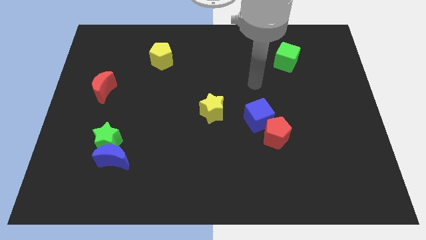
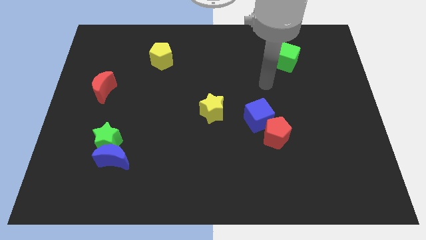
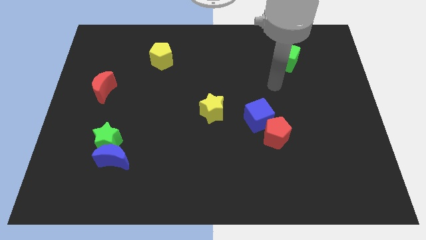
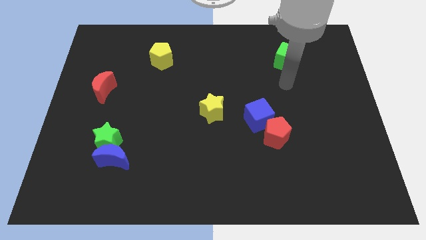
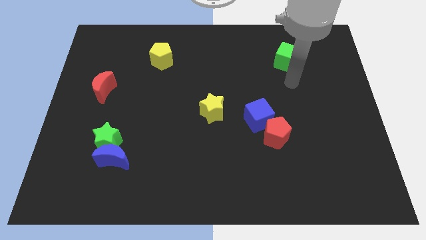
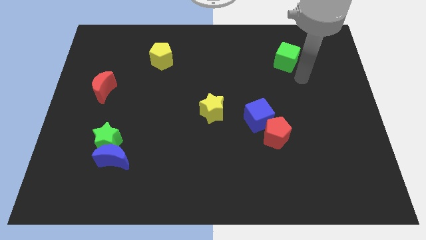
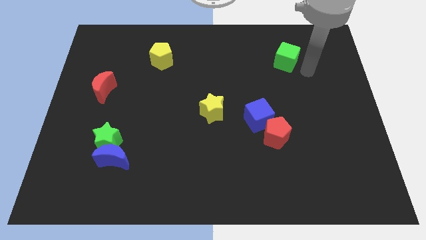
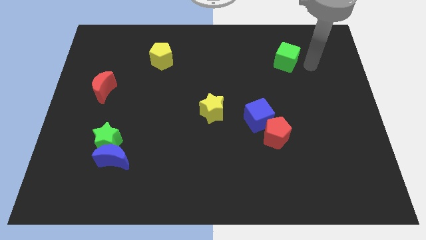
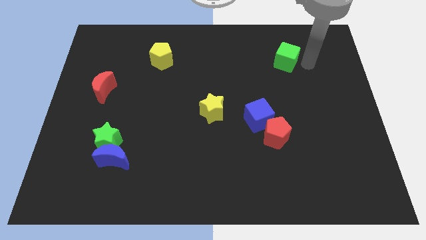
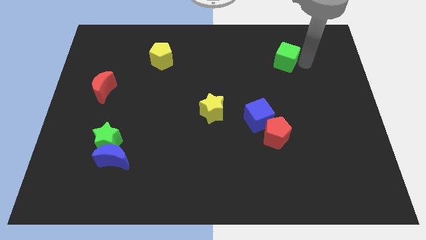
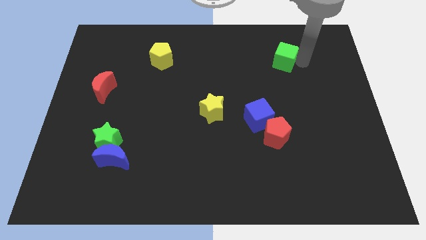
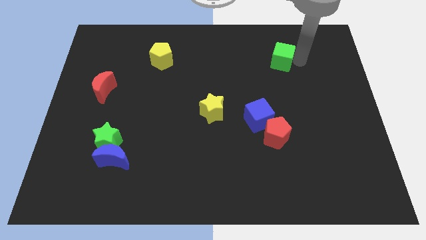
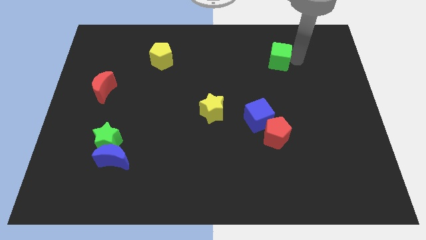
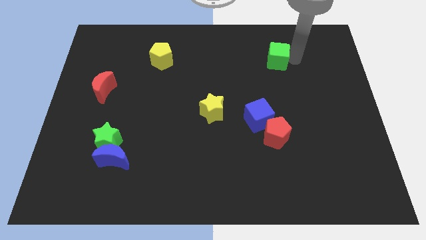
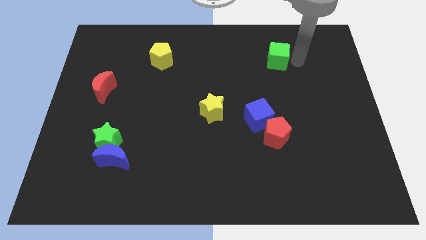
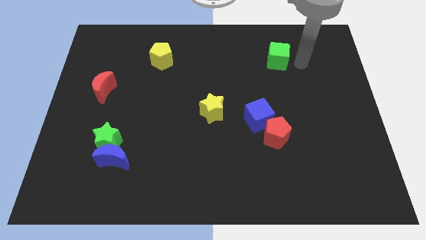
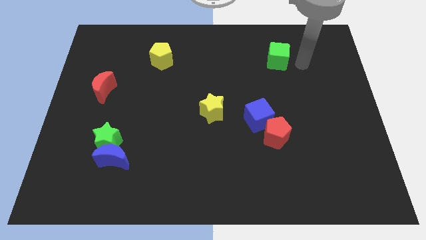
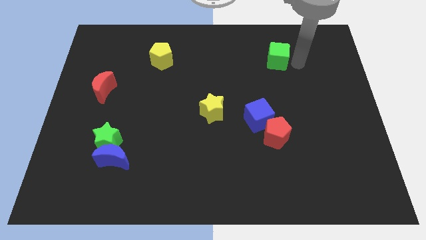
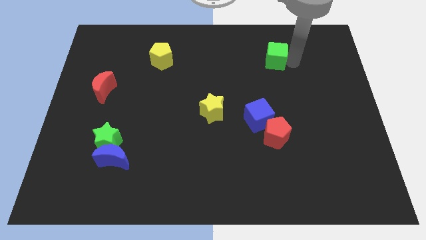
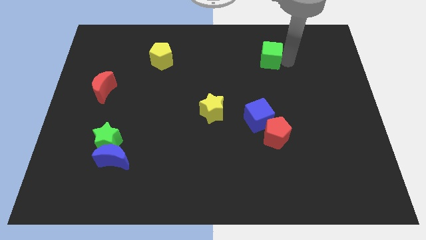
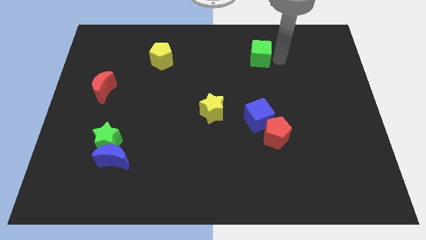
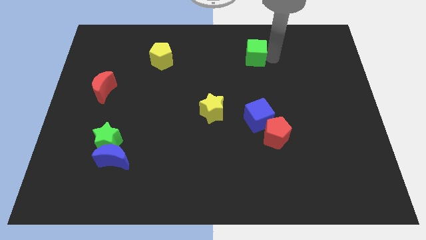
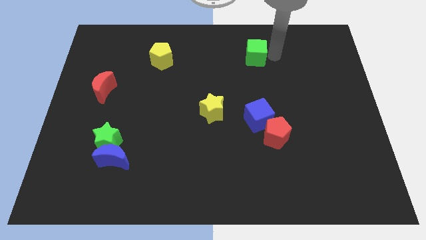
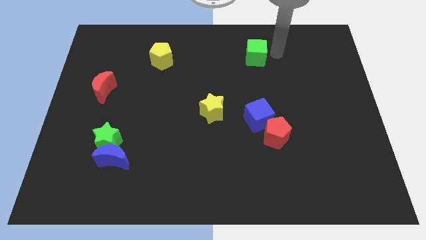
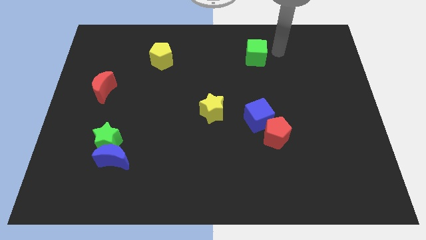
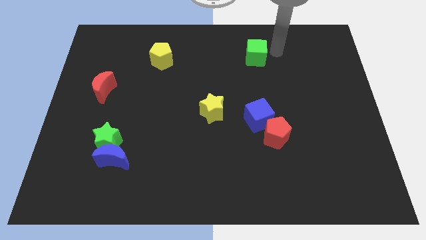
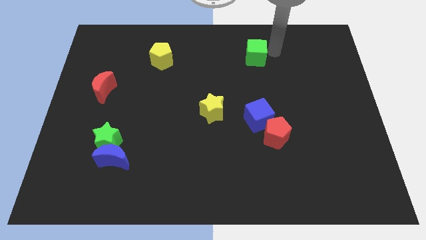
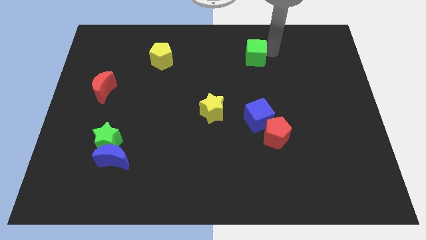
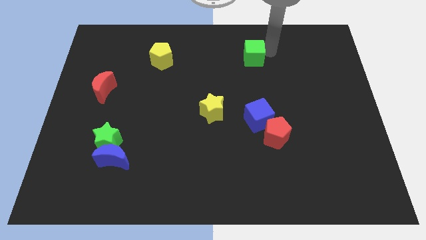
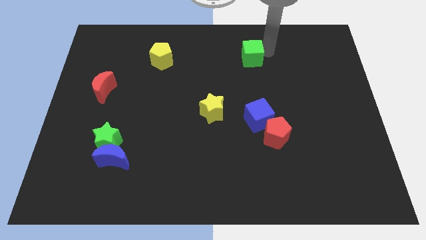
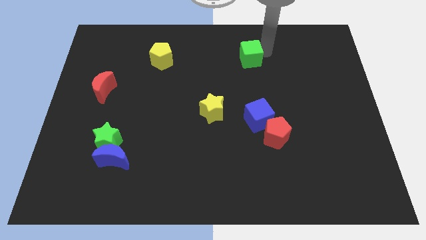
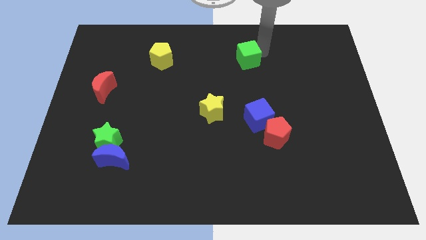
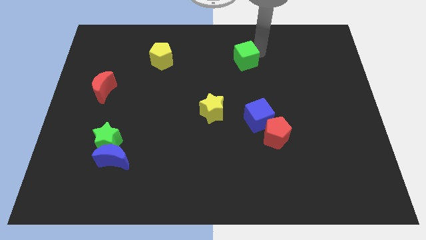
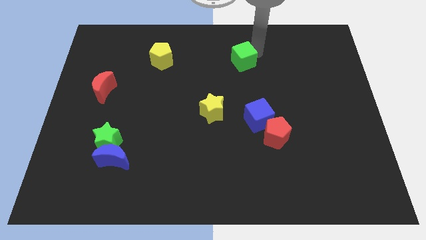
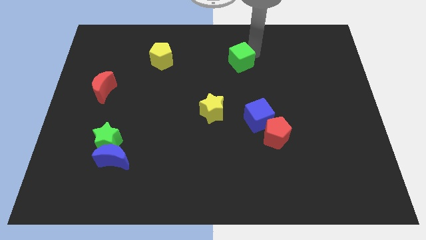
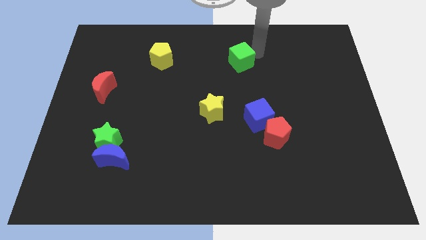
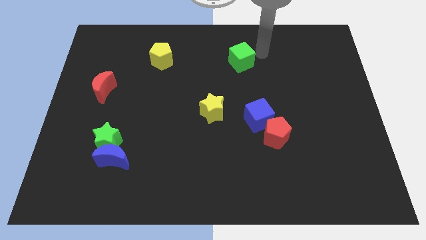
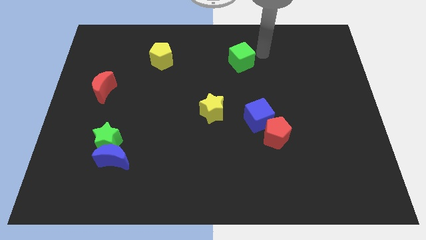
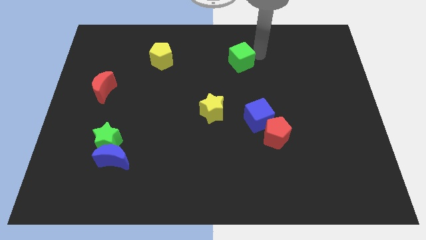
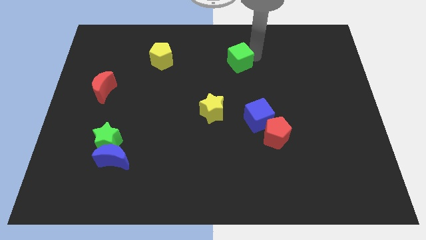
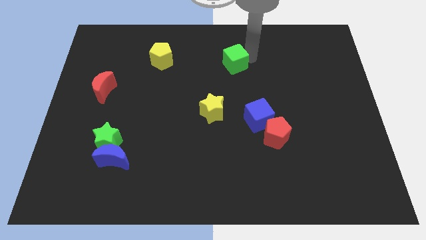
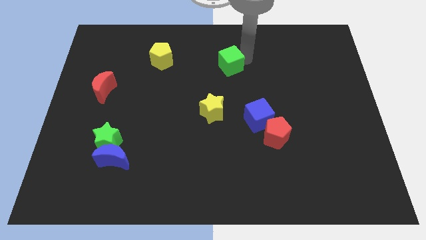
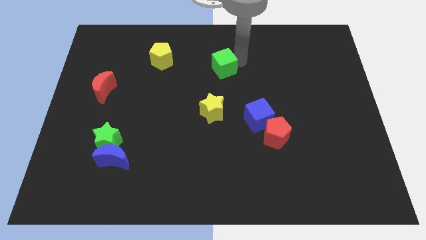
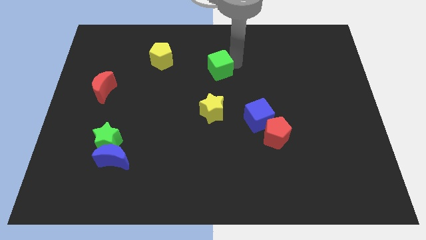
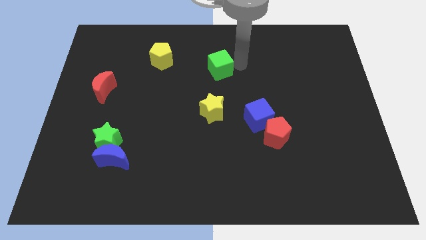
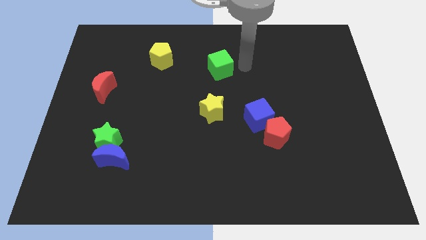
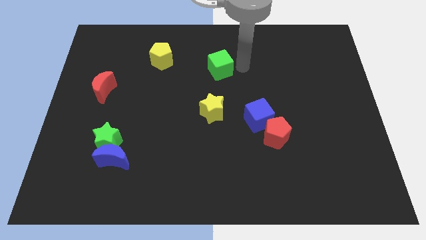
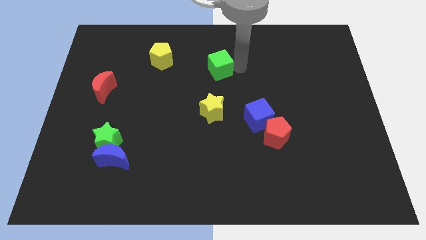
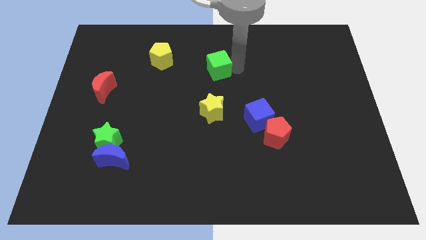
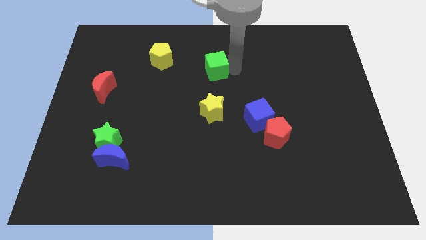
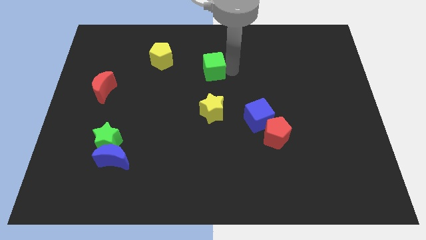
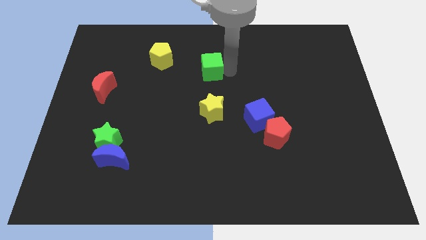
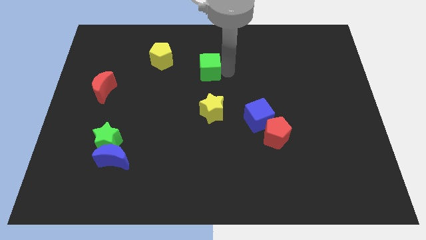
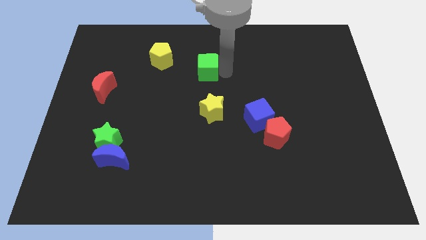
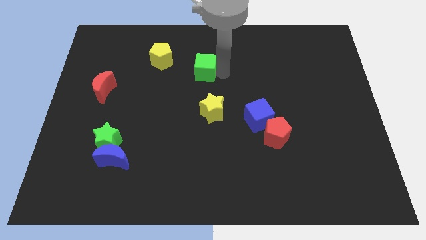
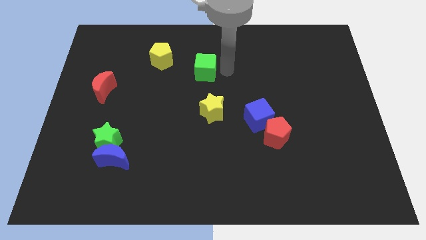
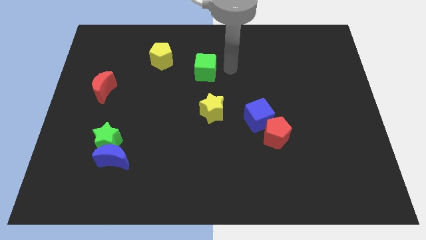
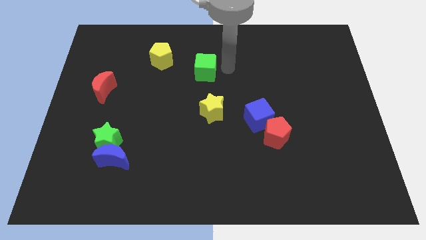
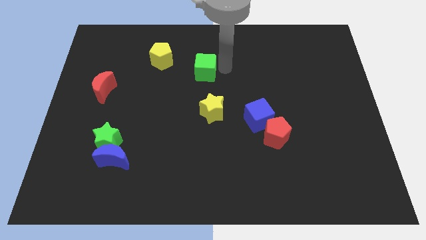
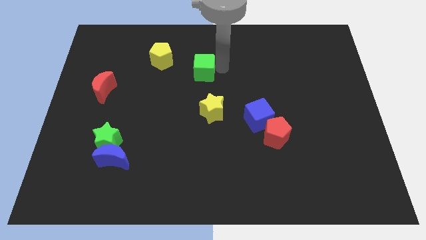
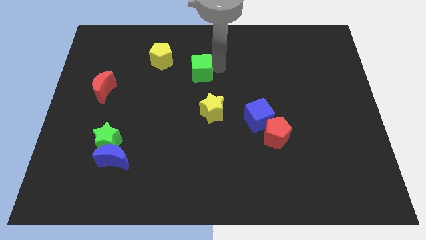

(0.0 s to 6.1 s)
move the green cube to the bottom right of the yellow pentagon

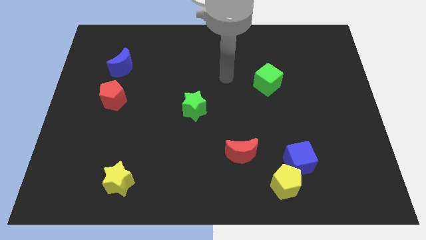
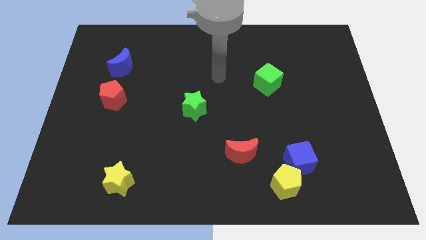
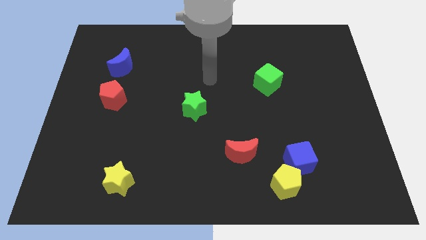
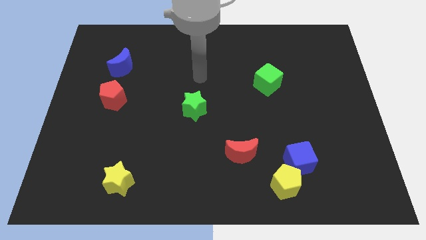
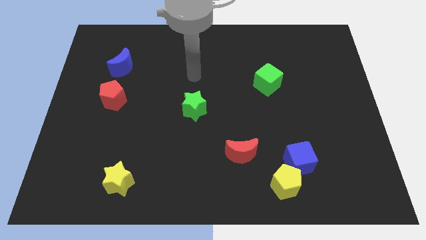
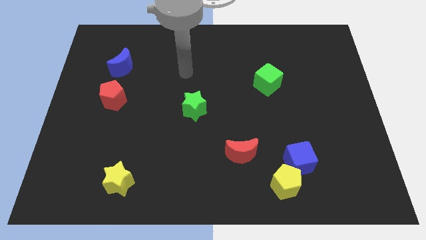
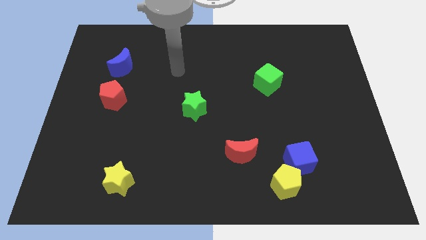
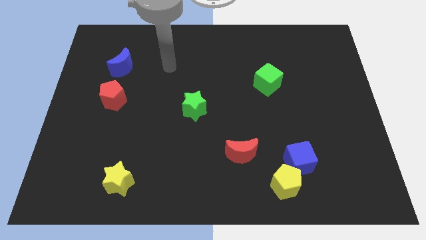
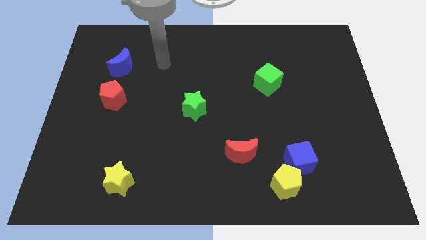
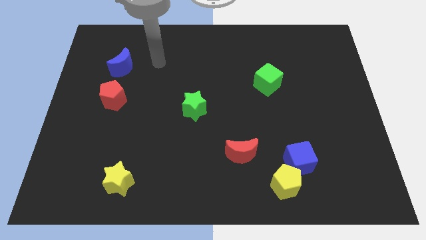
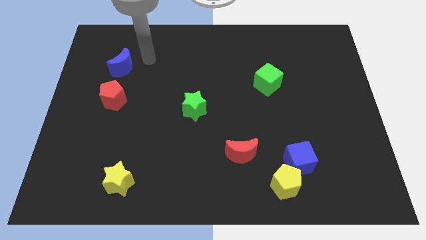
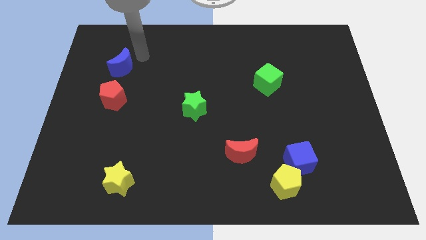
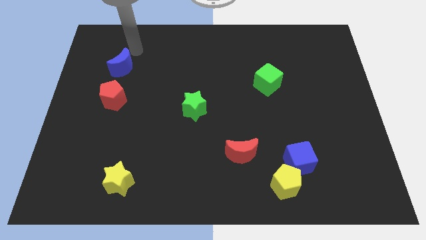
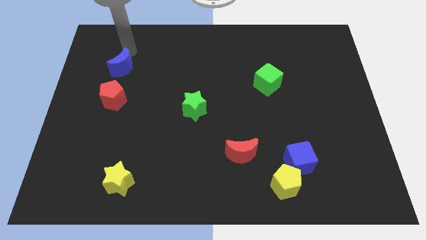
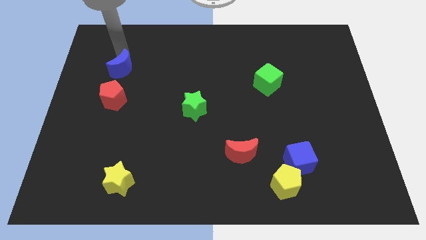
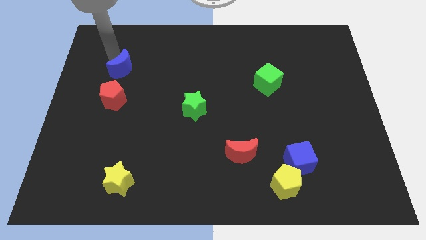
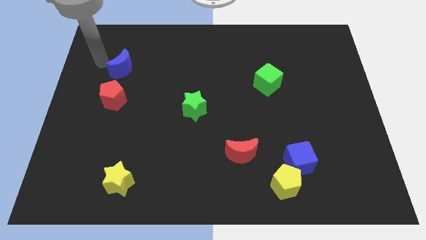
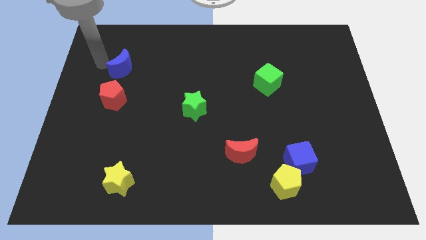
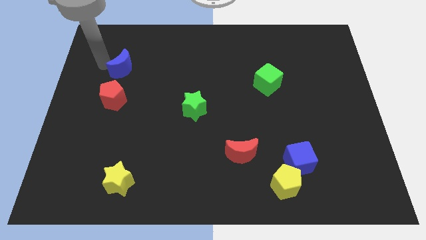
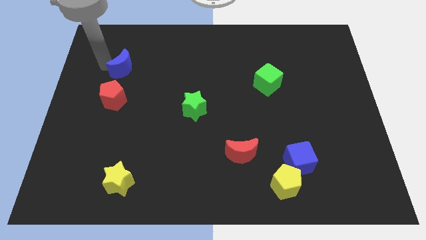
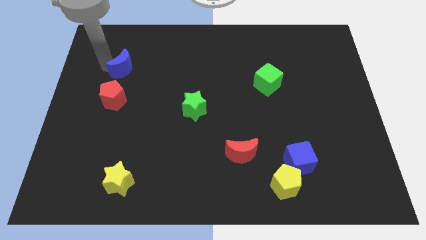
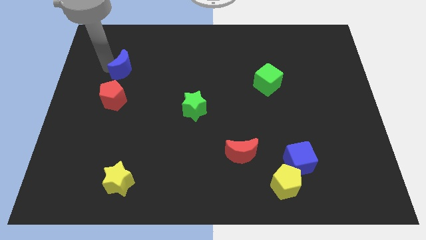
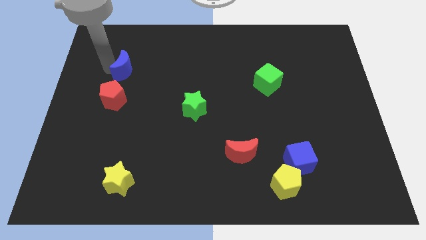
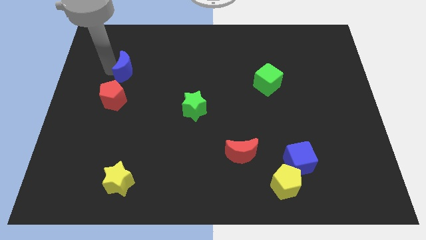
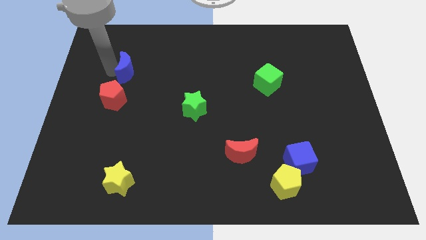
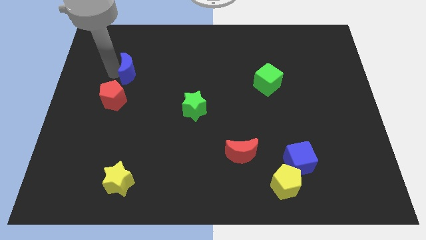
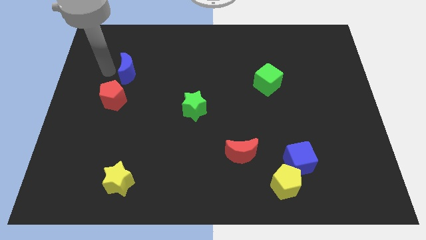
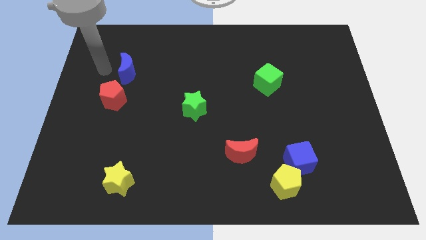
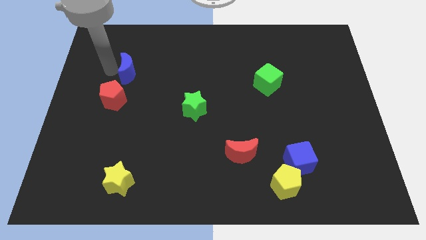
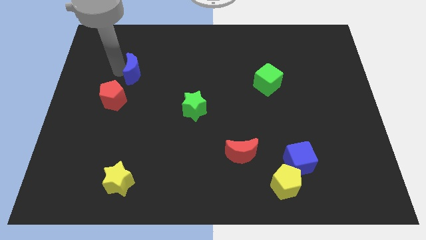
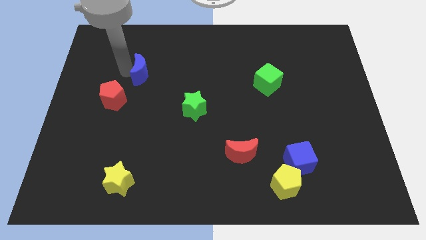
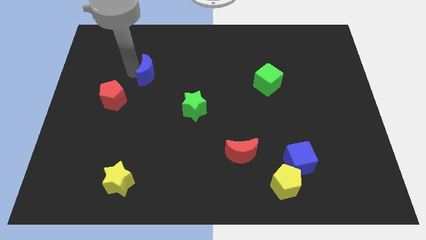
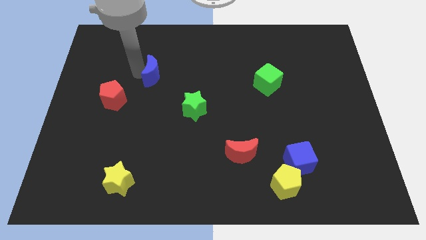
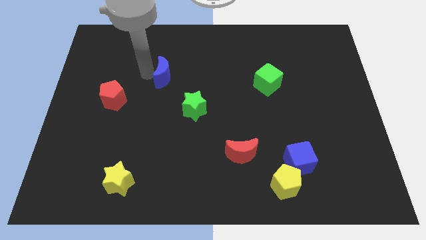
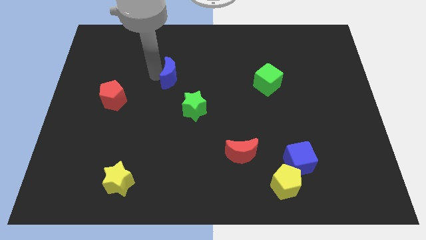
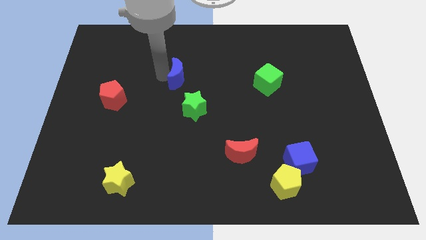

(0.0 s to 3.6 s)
push the blue moon above the green star
